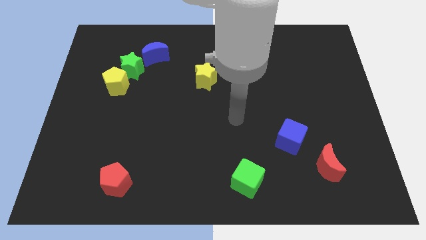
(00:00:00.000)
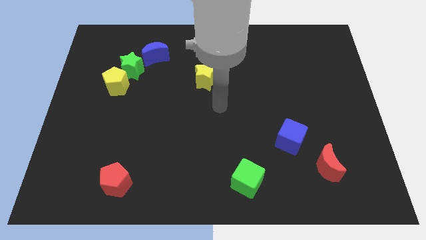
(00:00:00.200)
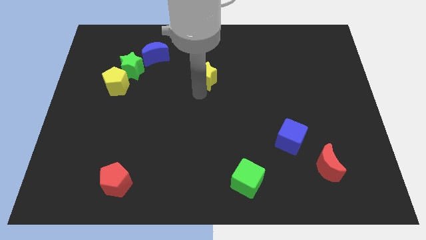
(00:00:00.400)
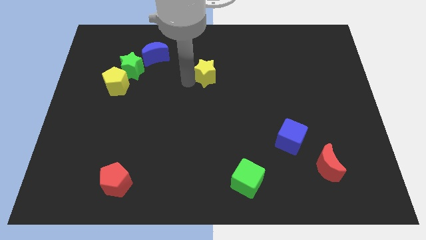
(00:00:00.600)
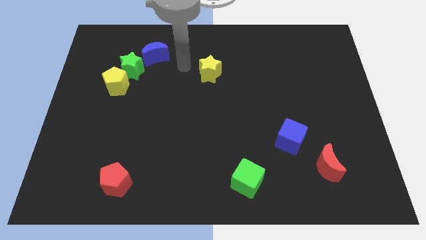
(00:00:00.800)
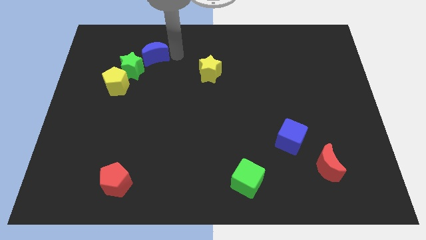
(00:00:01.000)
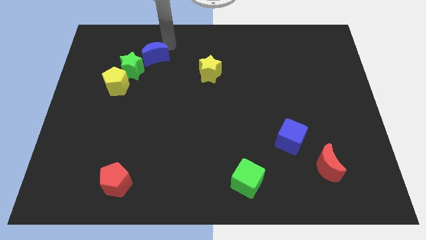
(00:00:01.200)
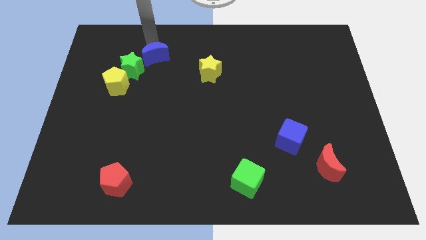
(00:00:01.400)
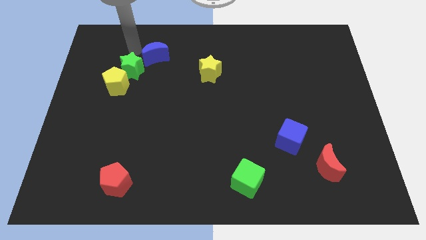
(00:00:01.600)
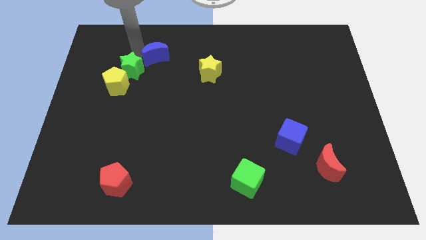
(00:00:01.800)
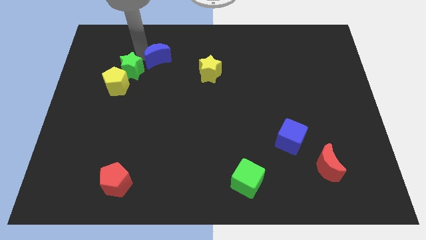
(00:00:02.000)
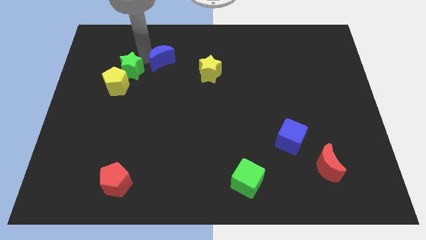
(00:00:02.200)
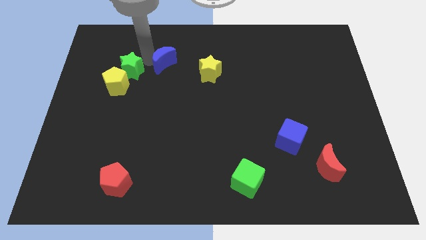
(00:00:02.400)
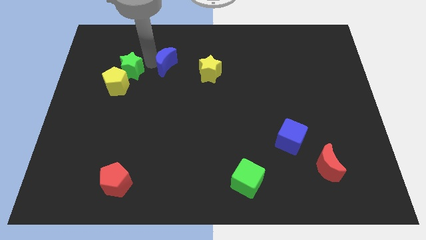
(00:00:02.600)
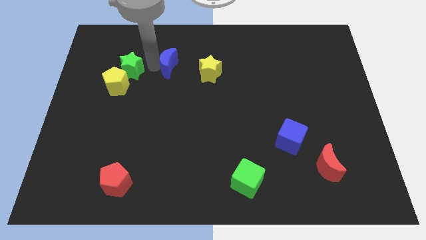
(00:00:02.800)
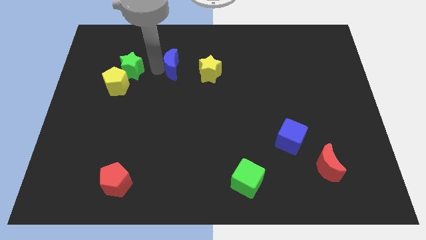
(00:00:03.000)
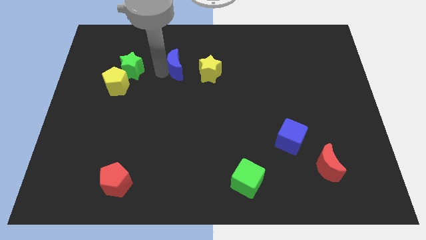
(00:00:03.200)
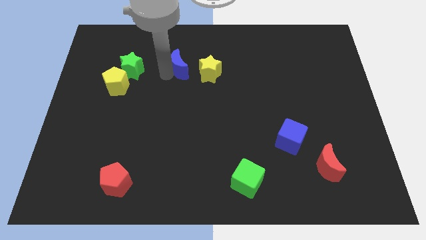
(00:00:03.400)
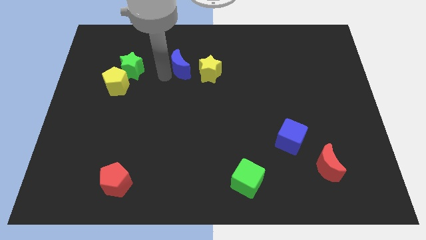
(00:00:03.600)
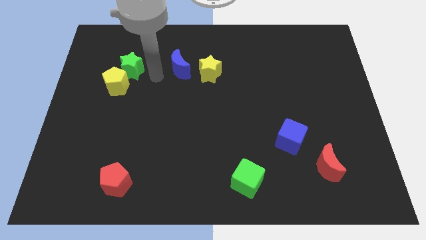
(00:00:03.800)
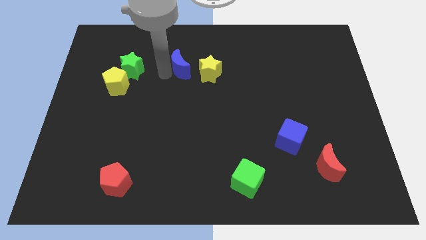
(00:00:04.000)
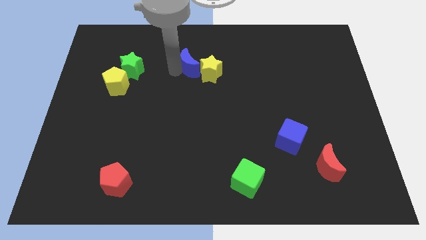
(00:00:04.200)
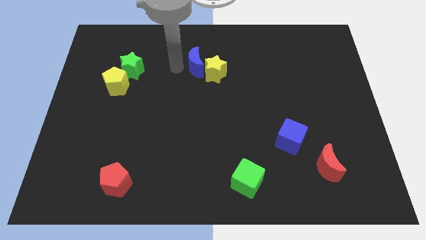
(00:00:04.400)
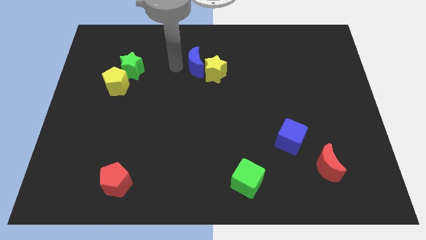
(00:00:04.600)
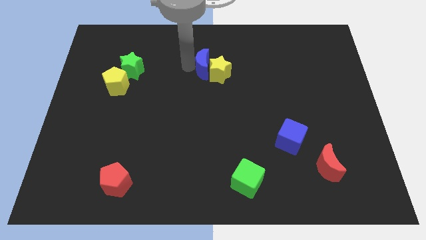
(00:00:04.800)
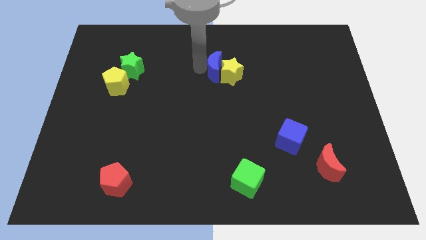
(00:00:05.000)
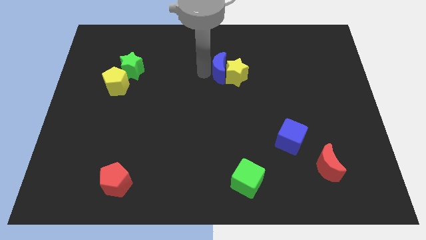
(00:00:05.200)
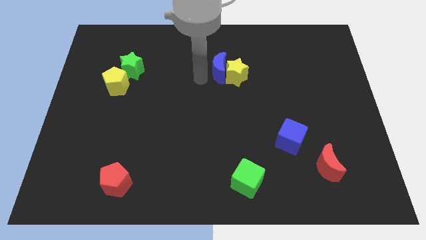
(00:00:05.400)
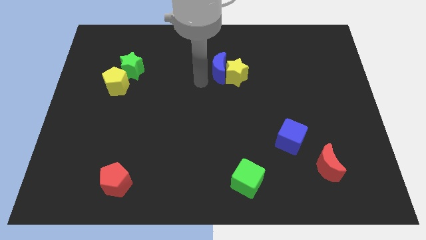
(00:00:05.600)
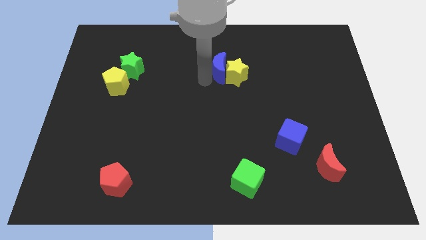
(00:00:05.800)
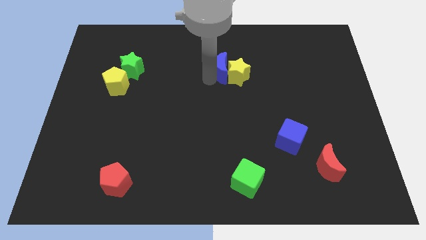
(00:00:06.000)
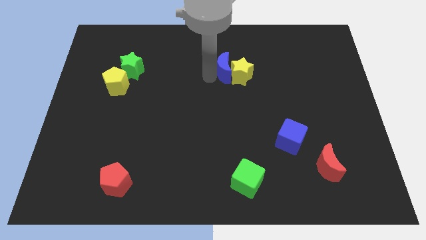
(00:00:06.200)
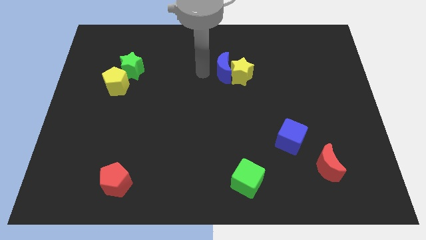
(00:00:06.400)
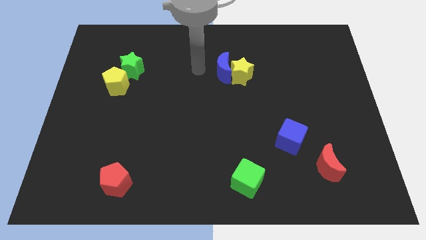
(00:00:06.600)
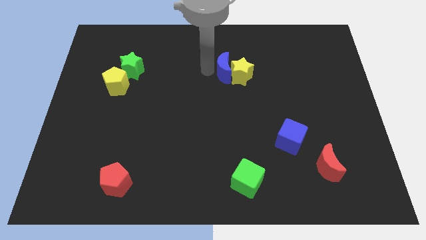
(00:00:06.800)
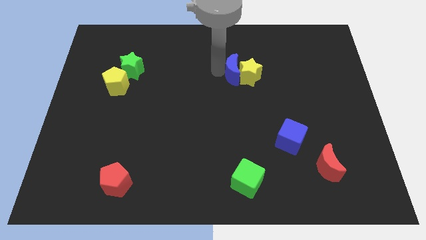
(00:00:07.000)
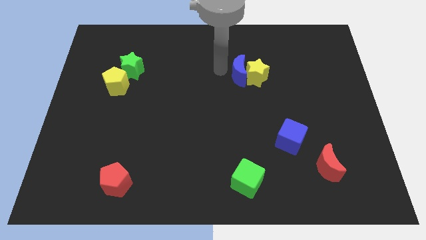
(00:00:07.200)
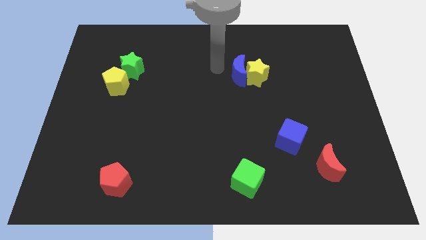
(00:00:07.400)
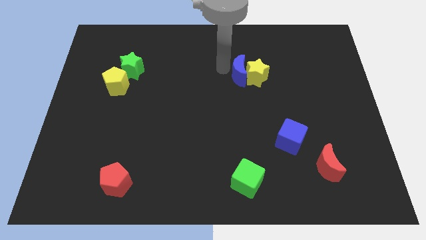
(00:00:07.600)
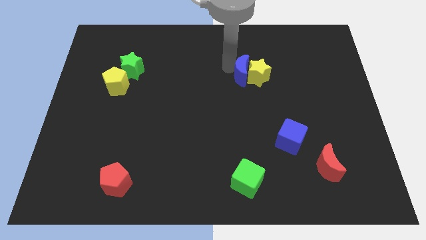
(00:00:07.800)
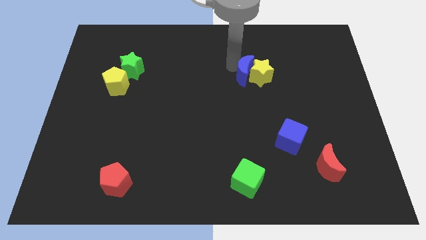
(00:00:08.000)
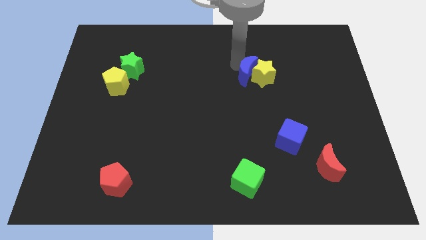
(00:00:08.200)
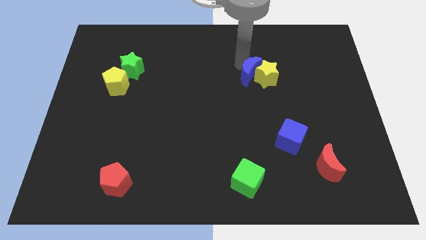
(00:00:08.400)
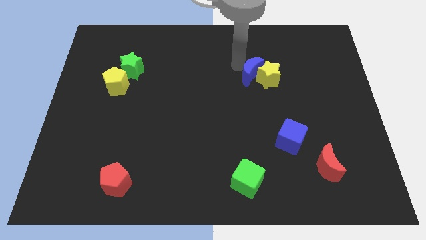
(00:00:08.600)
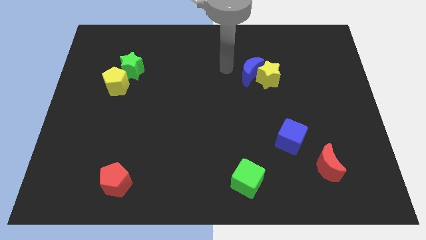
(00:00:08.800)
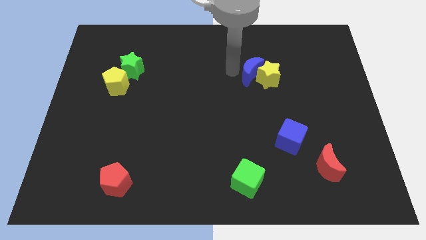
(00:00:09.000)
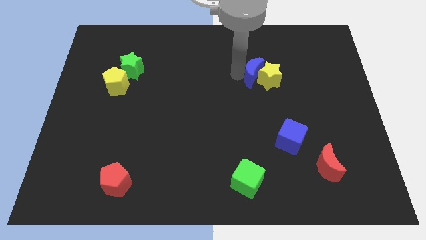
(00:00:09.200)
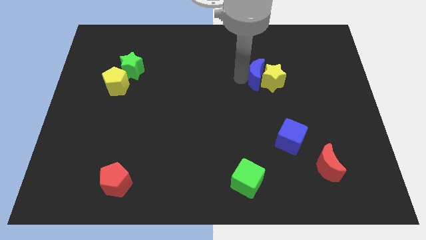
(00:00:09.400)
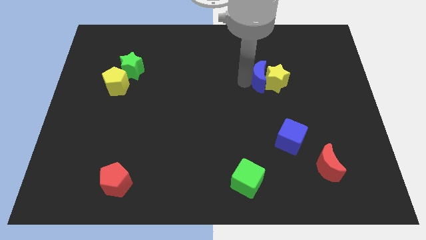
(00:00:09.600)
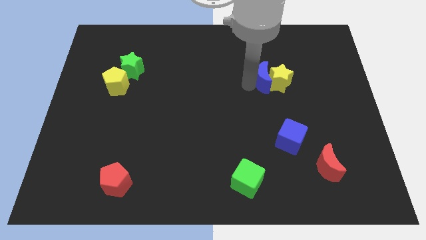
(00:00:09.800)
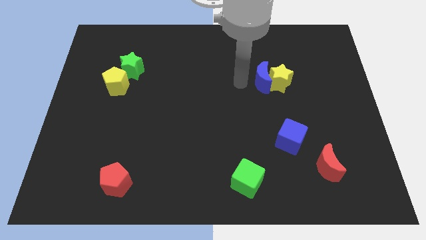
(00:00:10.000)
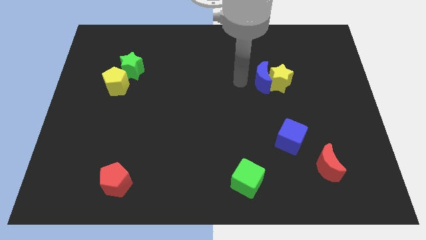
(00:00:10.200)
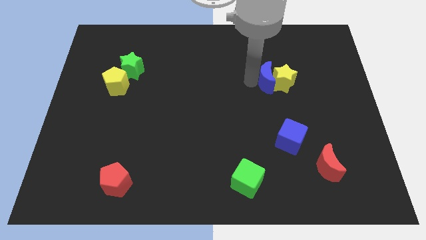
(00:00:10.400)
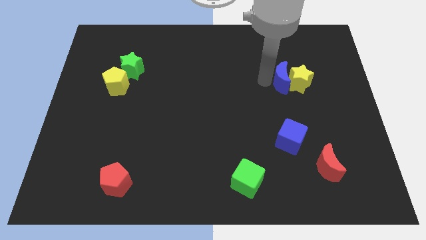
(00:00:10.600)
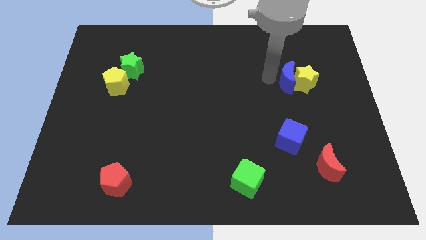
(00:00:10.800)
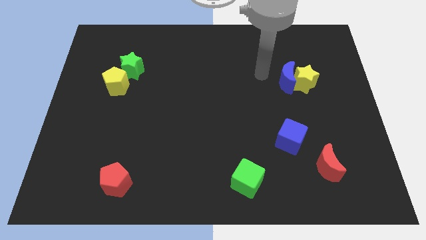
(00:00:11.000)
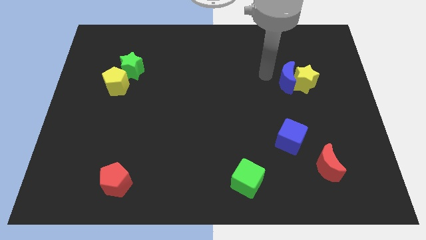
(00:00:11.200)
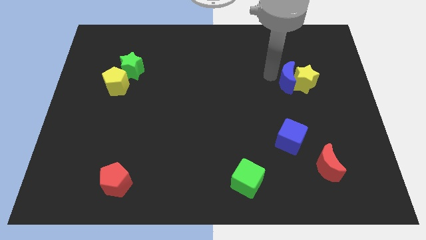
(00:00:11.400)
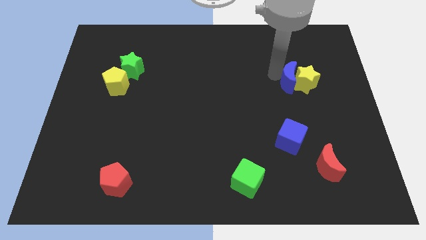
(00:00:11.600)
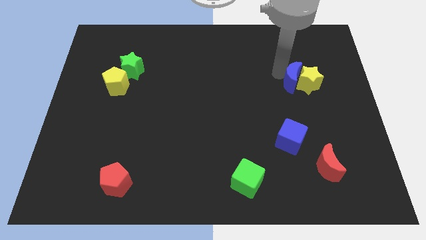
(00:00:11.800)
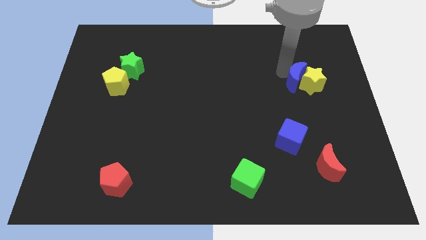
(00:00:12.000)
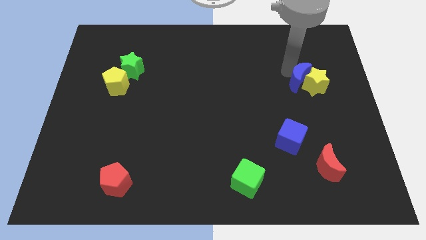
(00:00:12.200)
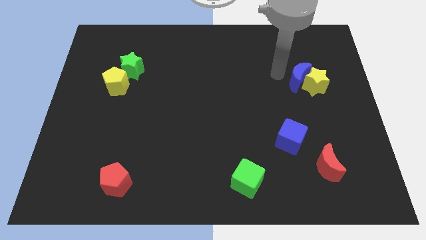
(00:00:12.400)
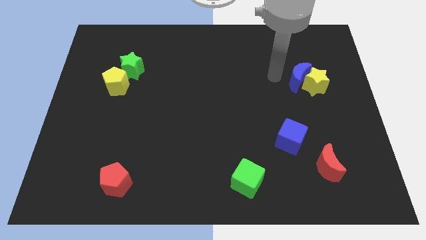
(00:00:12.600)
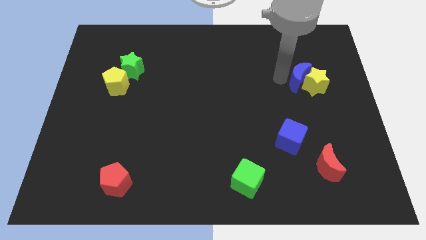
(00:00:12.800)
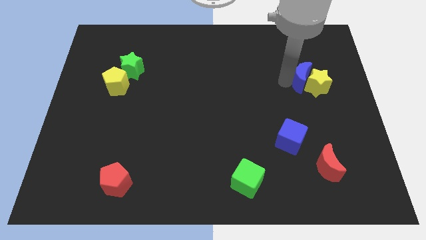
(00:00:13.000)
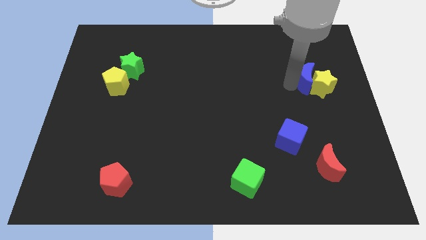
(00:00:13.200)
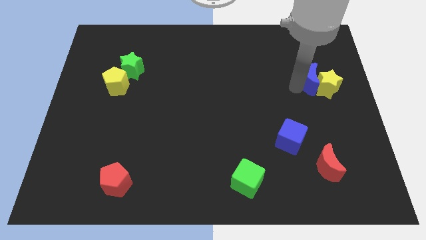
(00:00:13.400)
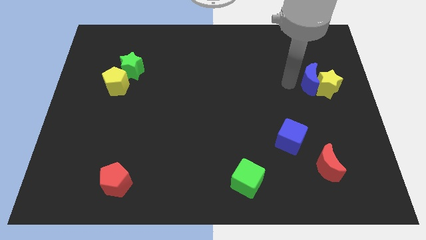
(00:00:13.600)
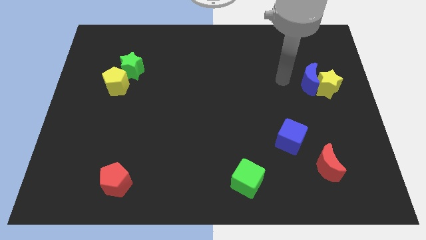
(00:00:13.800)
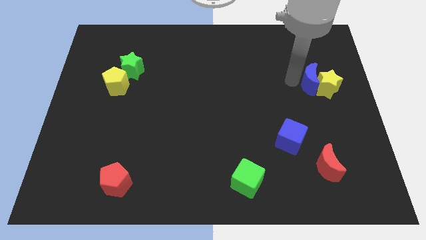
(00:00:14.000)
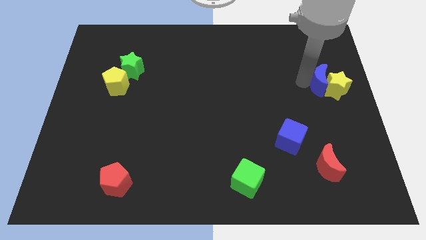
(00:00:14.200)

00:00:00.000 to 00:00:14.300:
slide the blue moon to the right side of the board
